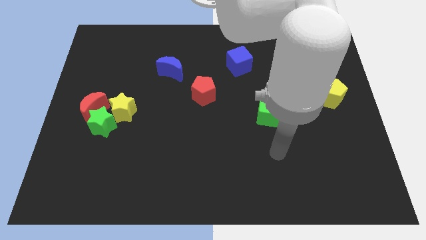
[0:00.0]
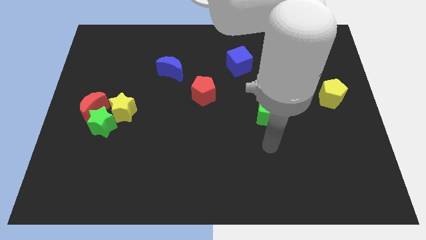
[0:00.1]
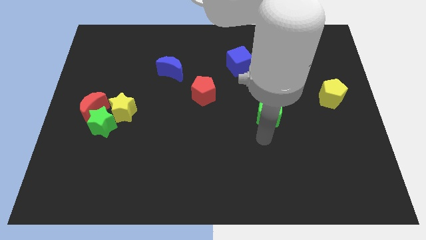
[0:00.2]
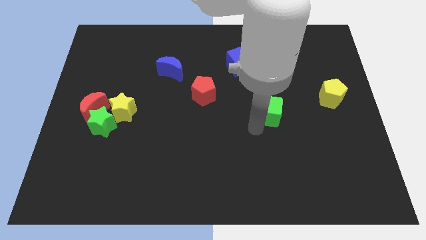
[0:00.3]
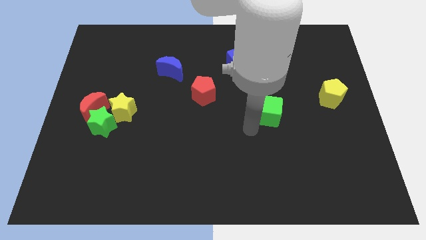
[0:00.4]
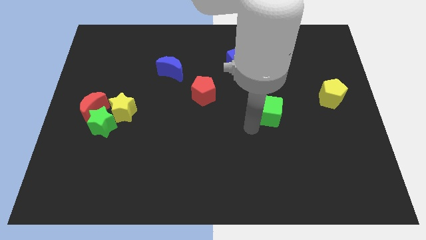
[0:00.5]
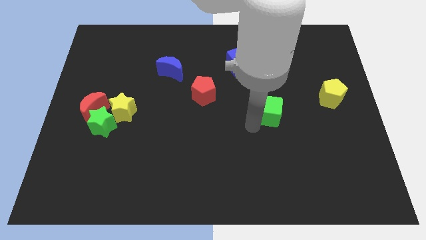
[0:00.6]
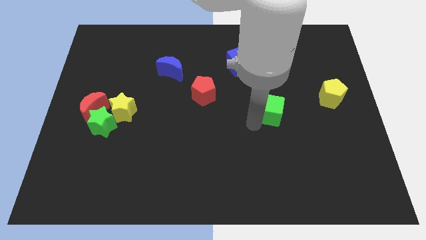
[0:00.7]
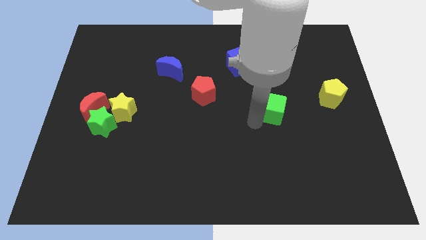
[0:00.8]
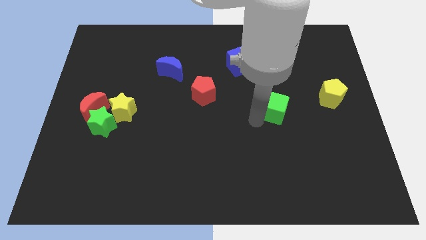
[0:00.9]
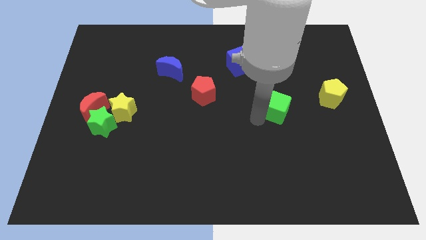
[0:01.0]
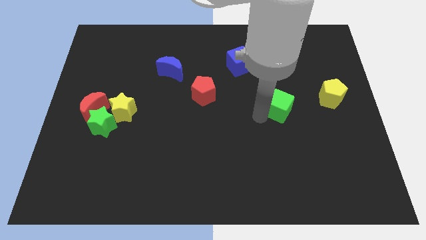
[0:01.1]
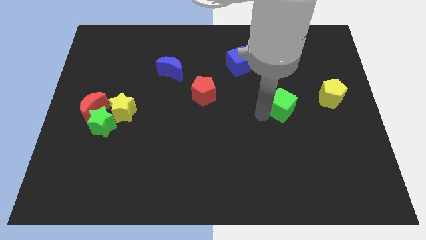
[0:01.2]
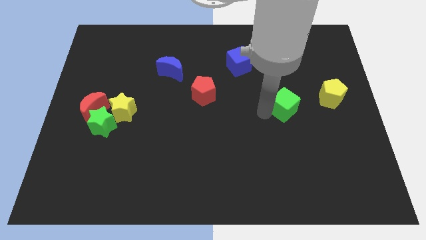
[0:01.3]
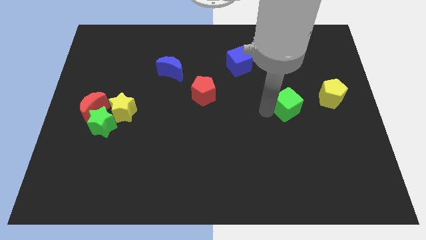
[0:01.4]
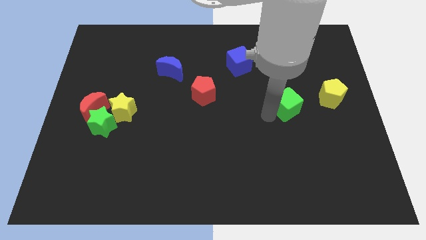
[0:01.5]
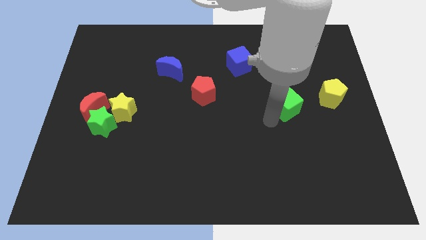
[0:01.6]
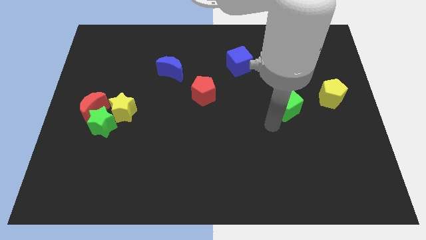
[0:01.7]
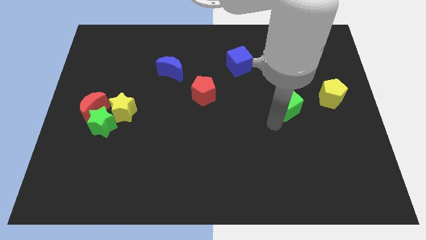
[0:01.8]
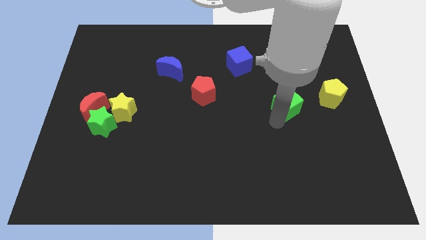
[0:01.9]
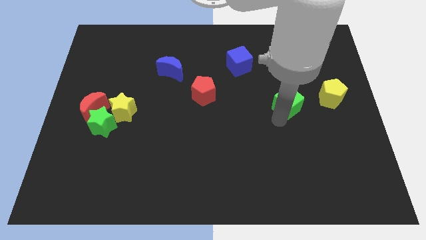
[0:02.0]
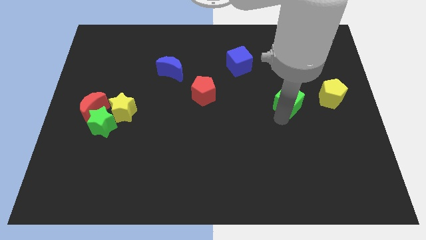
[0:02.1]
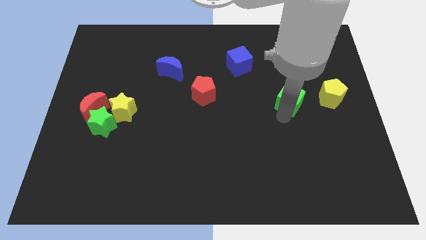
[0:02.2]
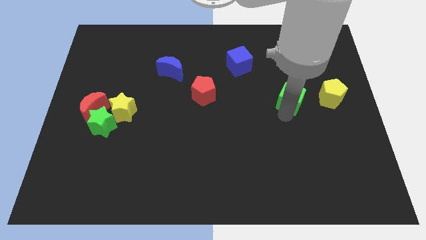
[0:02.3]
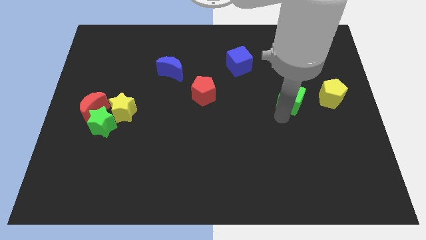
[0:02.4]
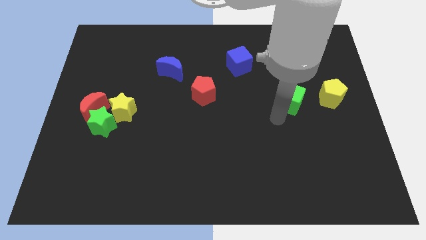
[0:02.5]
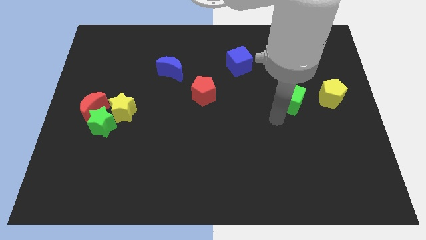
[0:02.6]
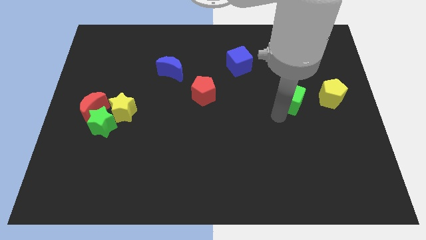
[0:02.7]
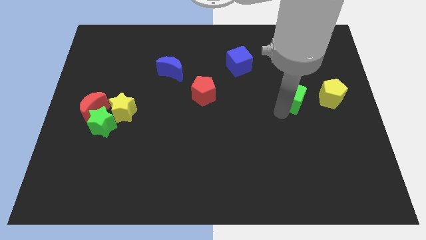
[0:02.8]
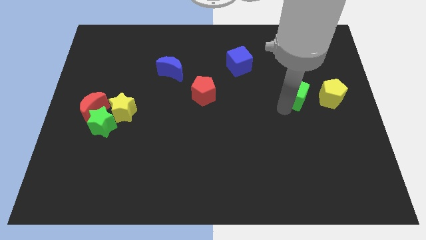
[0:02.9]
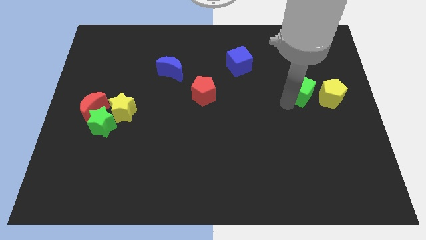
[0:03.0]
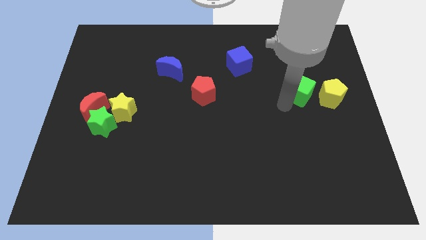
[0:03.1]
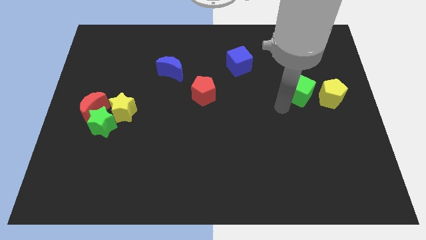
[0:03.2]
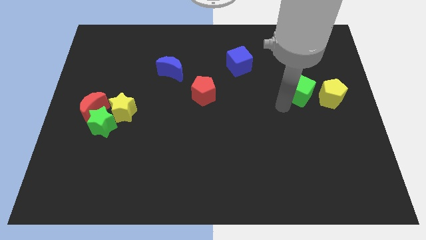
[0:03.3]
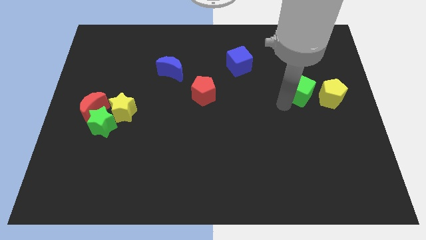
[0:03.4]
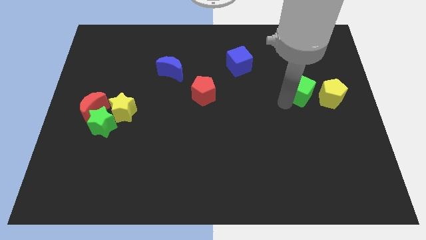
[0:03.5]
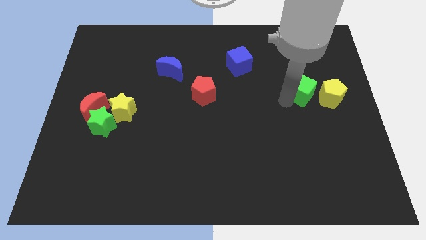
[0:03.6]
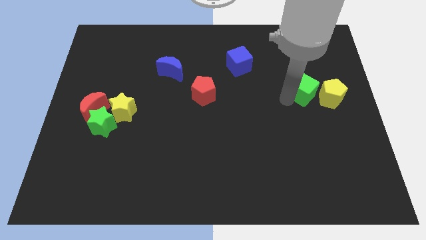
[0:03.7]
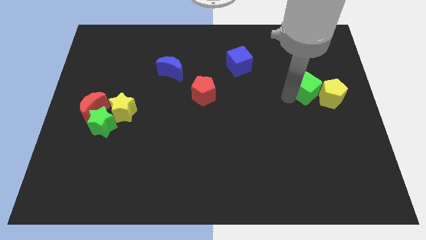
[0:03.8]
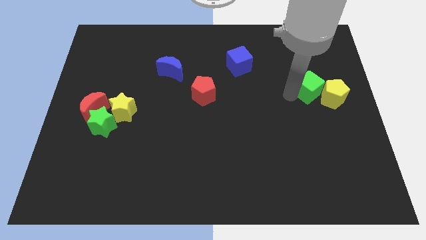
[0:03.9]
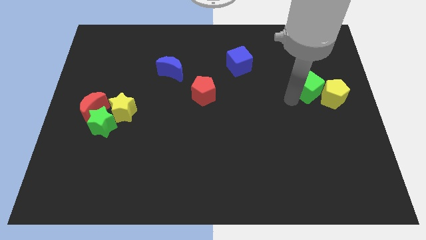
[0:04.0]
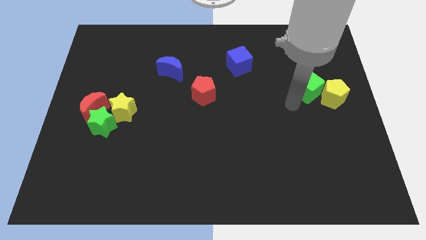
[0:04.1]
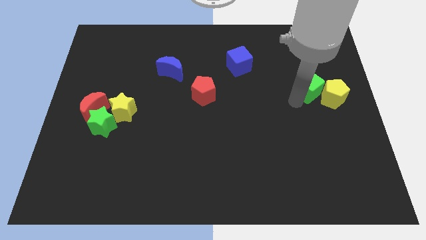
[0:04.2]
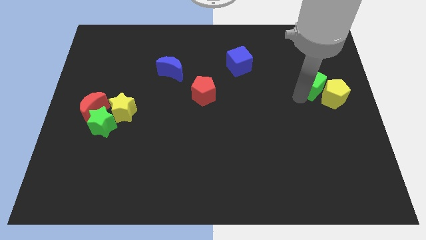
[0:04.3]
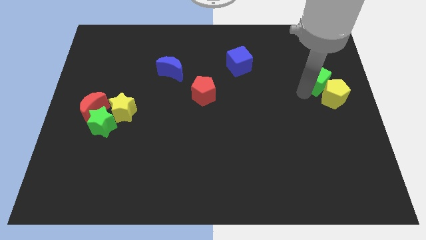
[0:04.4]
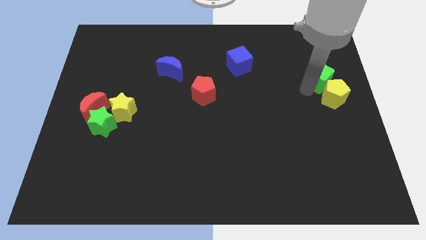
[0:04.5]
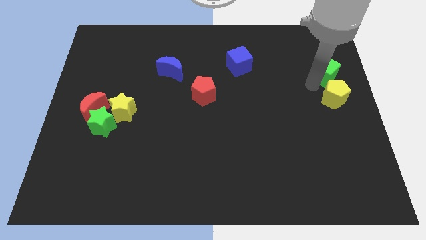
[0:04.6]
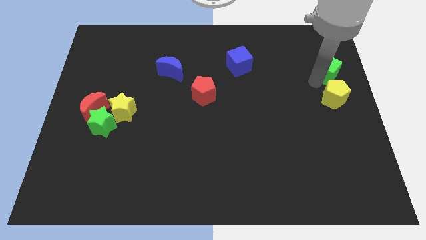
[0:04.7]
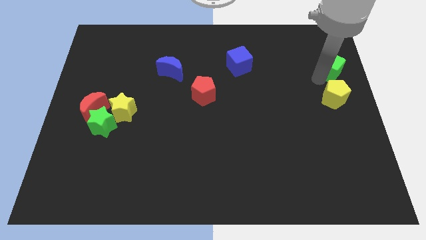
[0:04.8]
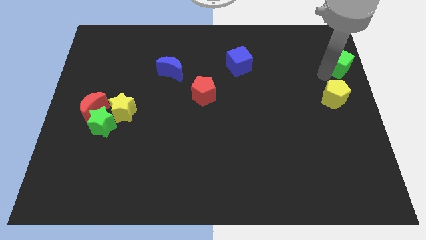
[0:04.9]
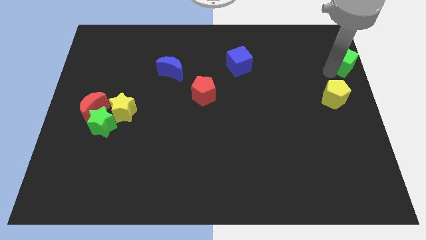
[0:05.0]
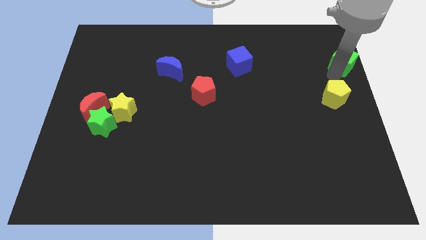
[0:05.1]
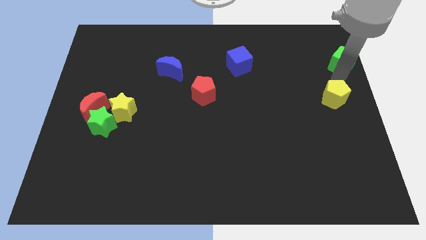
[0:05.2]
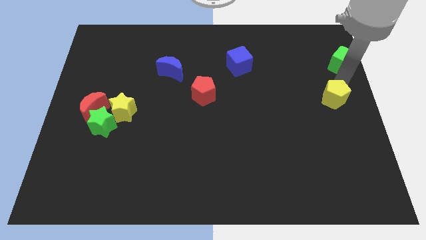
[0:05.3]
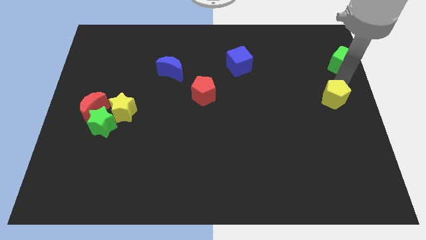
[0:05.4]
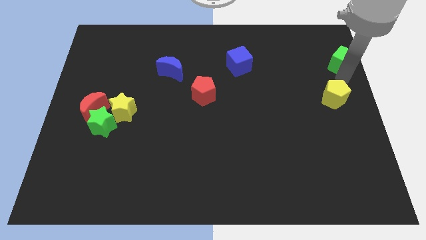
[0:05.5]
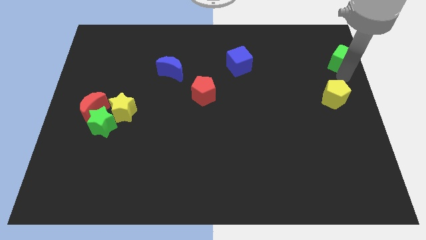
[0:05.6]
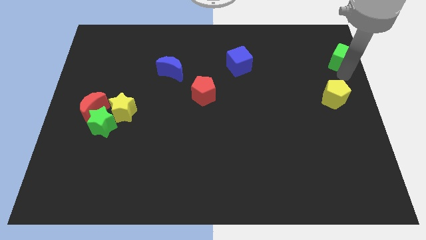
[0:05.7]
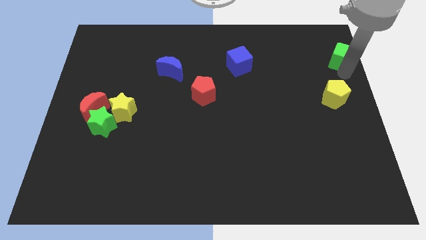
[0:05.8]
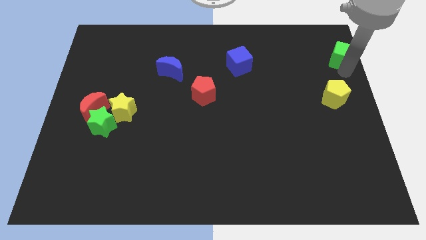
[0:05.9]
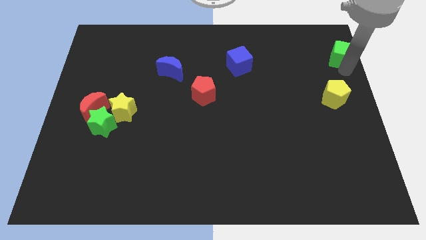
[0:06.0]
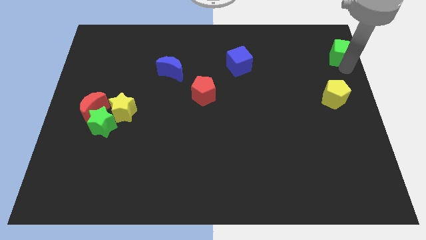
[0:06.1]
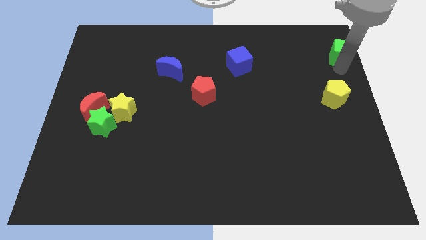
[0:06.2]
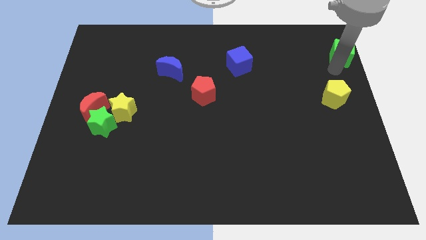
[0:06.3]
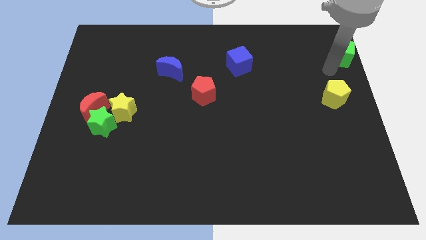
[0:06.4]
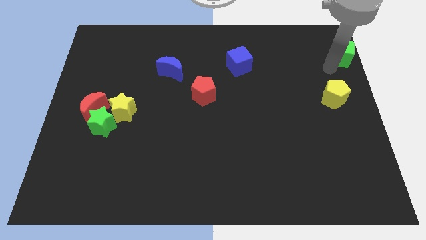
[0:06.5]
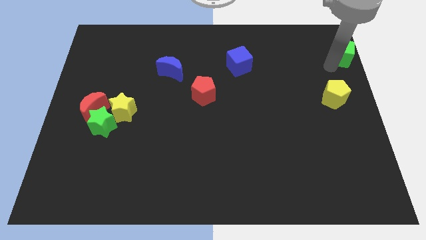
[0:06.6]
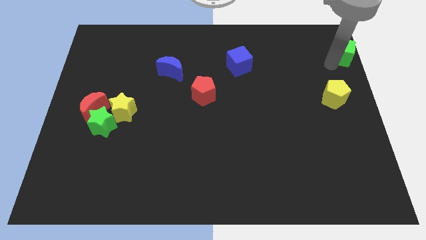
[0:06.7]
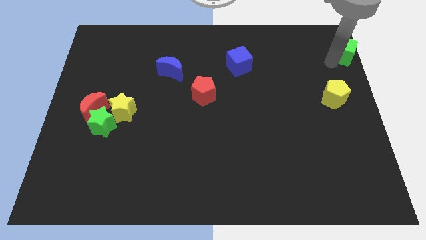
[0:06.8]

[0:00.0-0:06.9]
push the green cube to the top right of the board
